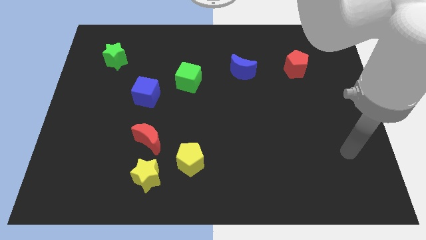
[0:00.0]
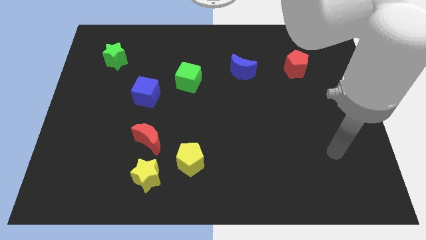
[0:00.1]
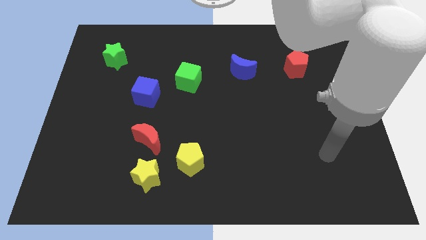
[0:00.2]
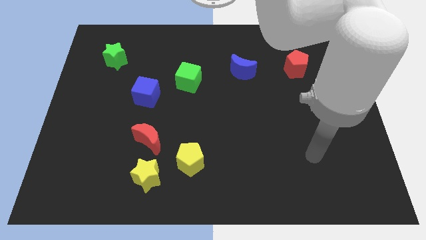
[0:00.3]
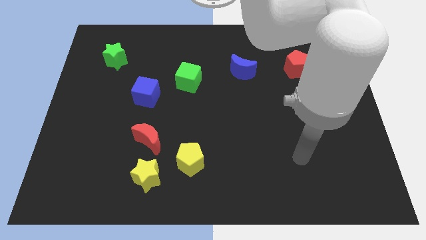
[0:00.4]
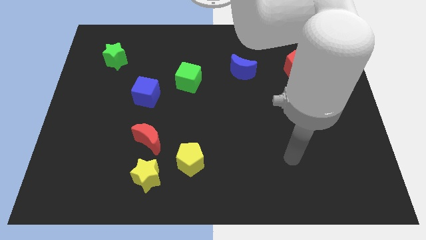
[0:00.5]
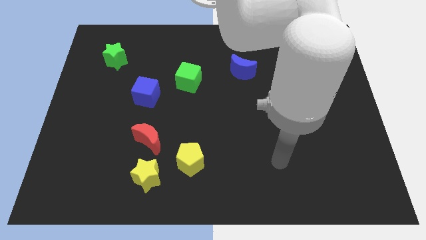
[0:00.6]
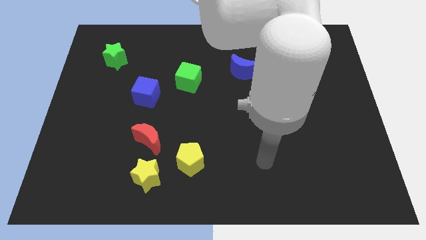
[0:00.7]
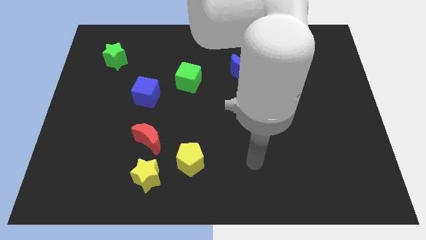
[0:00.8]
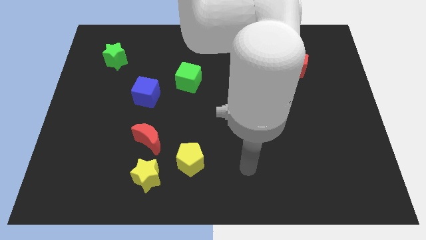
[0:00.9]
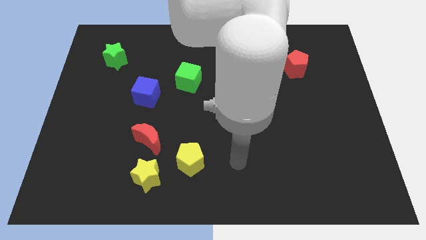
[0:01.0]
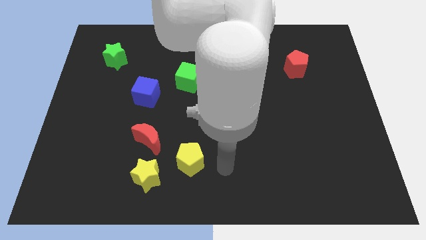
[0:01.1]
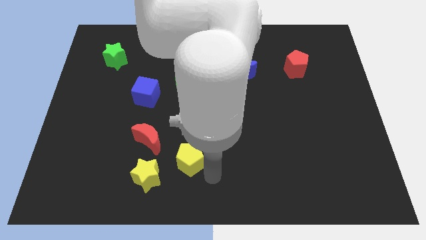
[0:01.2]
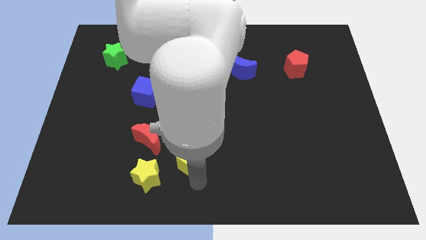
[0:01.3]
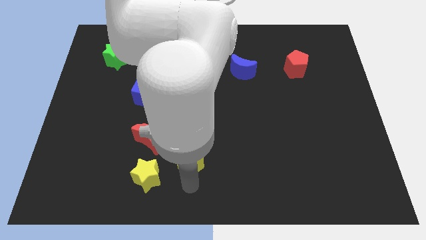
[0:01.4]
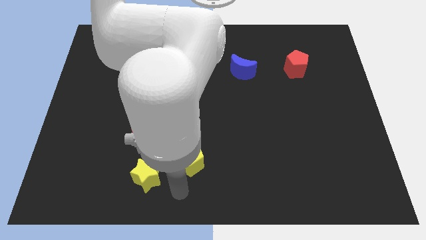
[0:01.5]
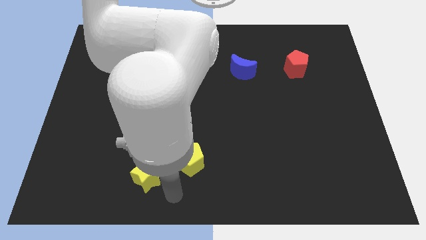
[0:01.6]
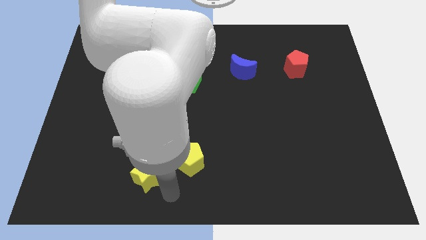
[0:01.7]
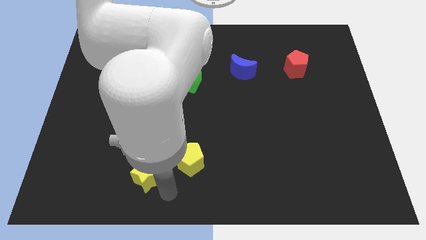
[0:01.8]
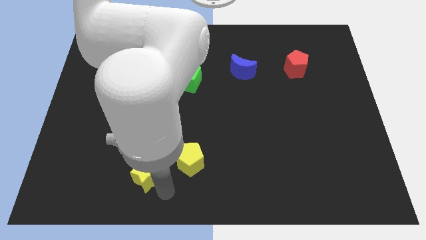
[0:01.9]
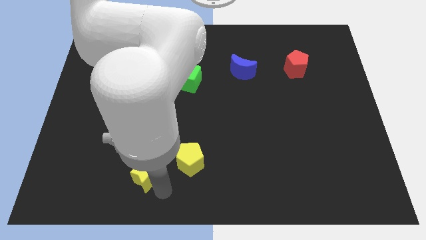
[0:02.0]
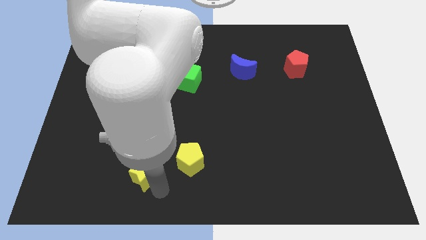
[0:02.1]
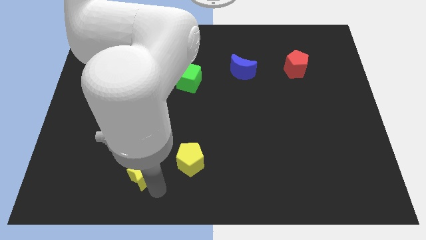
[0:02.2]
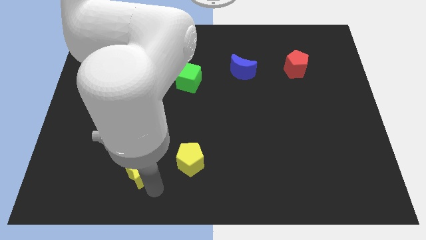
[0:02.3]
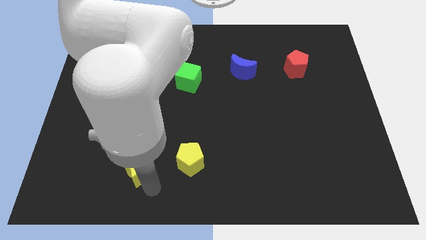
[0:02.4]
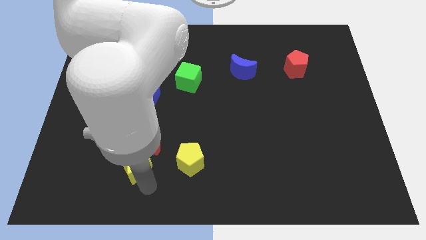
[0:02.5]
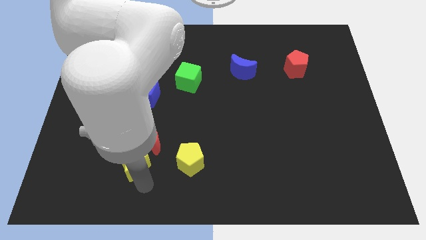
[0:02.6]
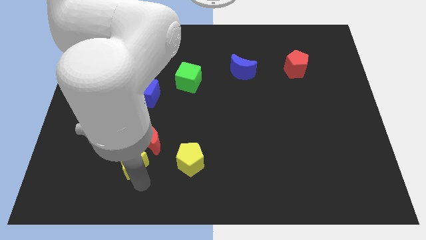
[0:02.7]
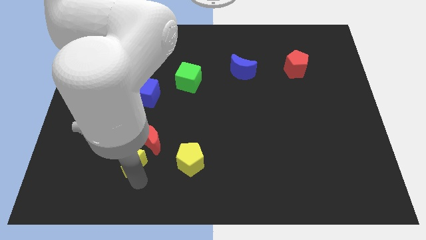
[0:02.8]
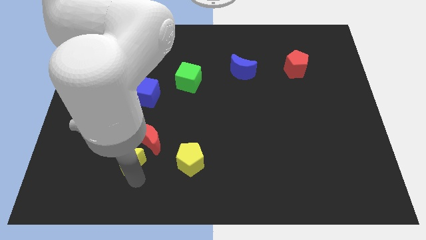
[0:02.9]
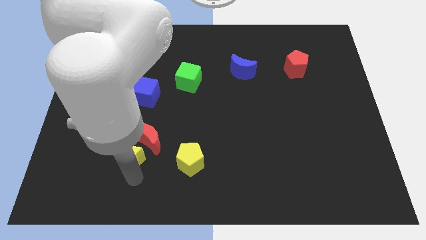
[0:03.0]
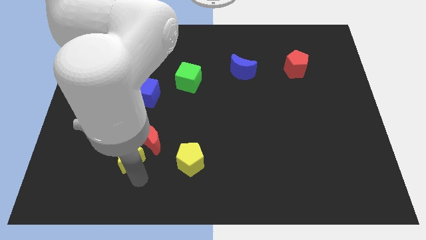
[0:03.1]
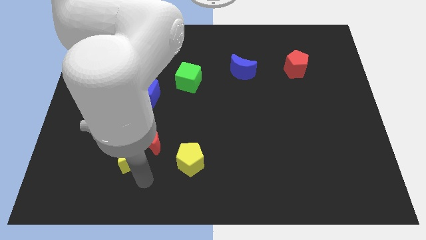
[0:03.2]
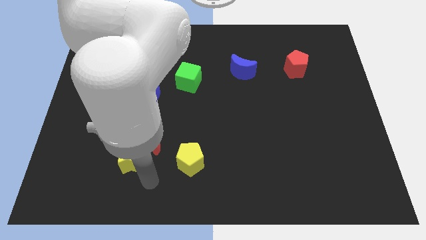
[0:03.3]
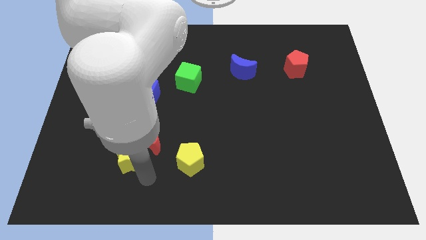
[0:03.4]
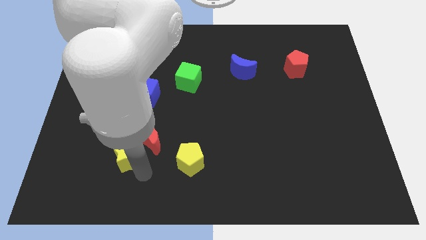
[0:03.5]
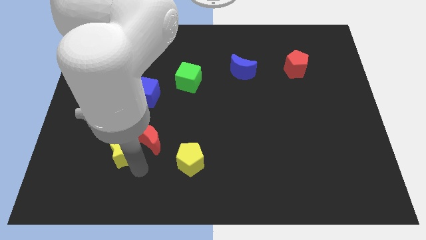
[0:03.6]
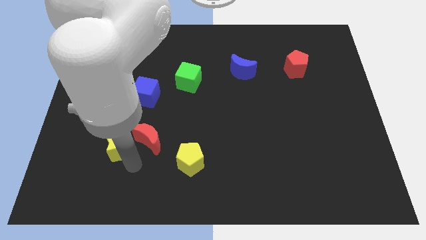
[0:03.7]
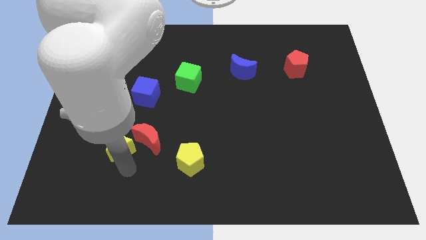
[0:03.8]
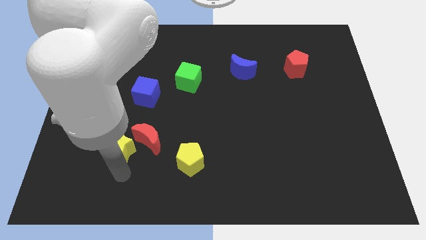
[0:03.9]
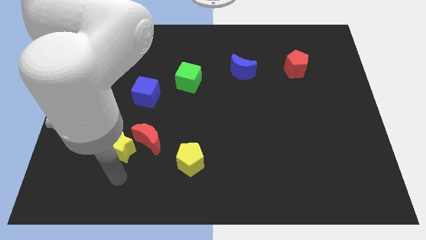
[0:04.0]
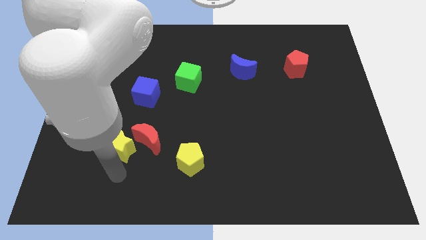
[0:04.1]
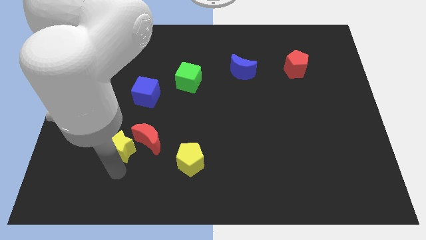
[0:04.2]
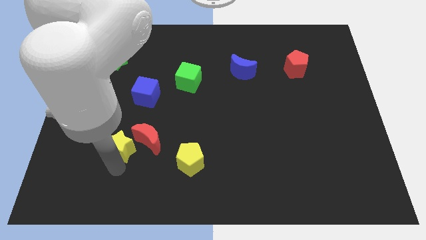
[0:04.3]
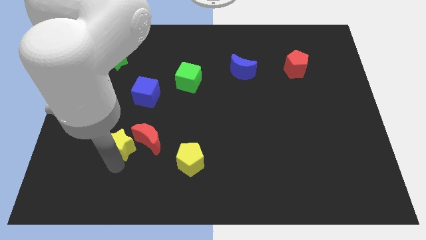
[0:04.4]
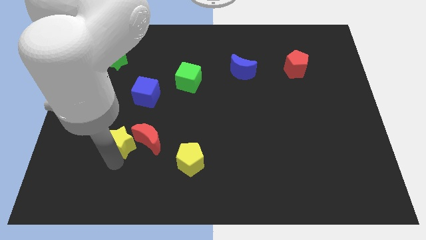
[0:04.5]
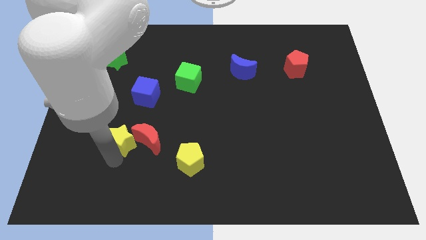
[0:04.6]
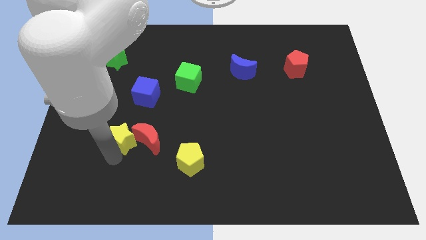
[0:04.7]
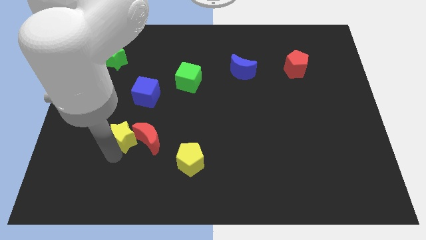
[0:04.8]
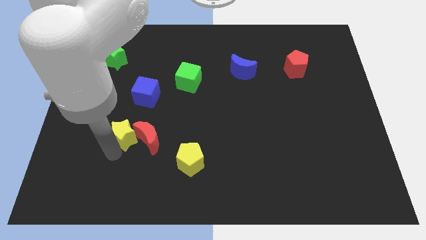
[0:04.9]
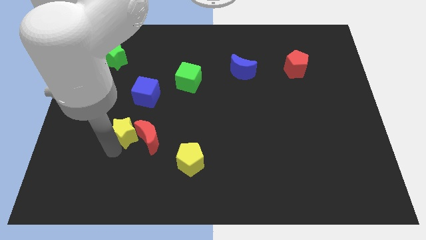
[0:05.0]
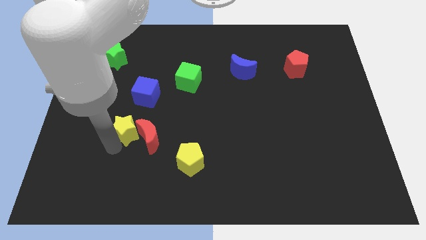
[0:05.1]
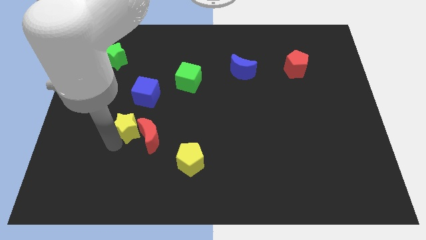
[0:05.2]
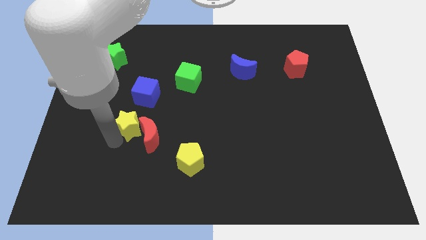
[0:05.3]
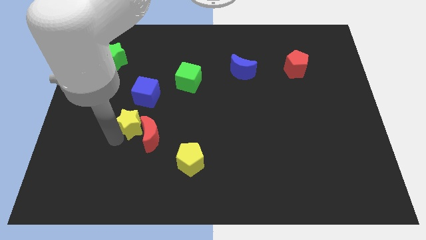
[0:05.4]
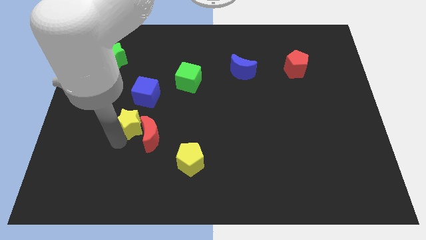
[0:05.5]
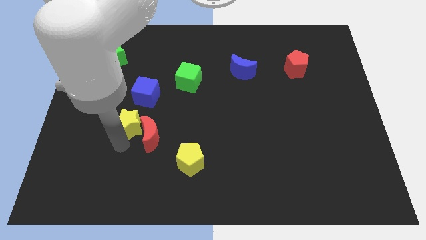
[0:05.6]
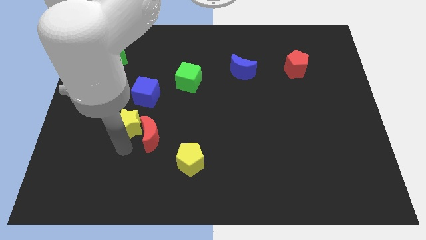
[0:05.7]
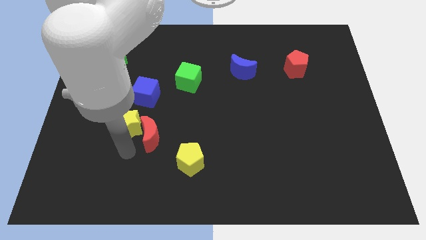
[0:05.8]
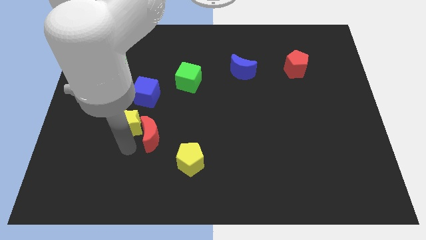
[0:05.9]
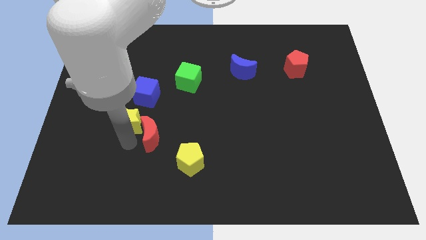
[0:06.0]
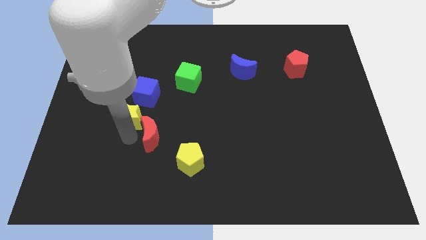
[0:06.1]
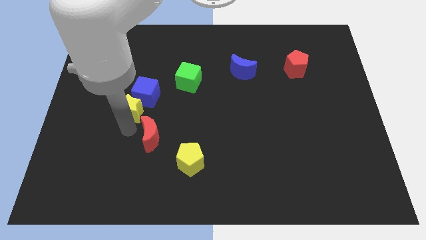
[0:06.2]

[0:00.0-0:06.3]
slide the yellow star next to the blue cube
